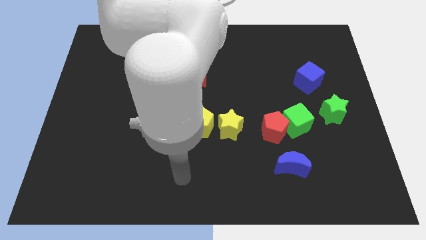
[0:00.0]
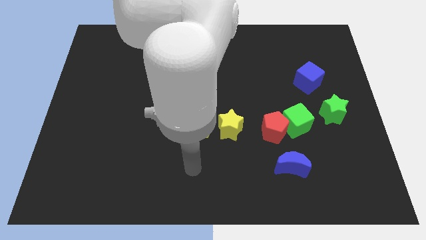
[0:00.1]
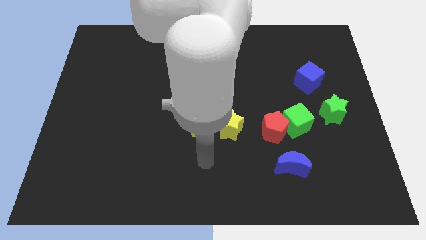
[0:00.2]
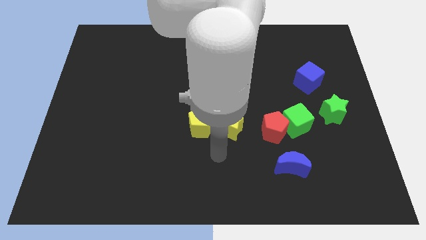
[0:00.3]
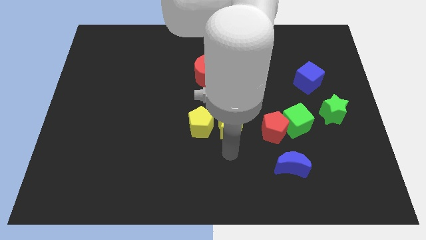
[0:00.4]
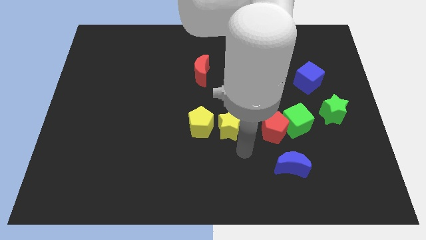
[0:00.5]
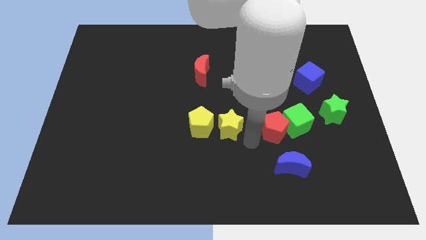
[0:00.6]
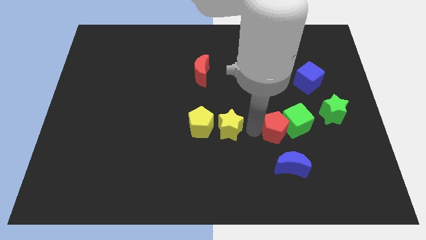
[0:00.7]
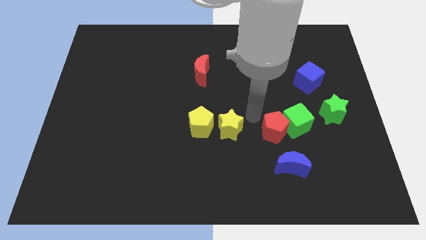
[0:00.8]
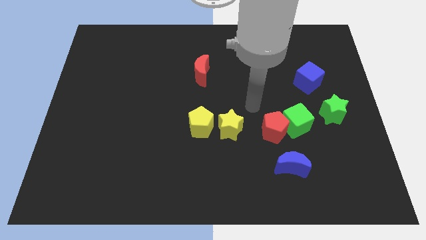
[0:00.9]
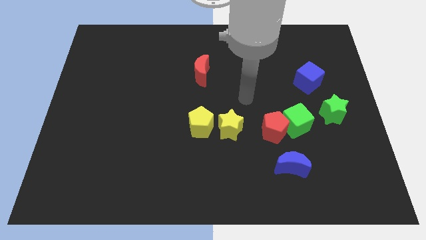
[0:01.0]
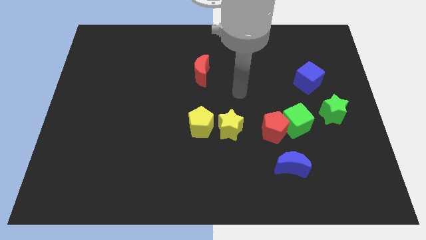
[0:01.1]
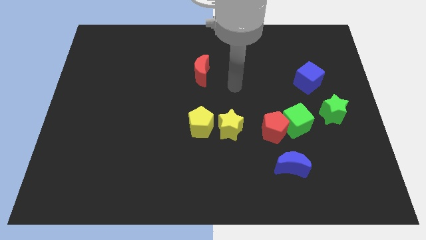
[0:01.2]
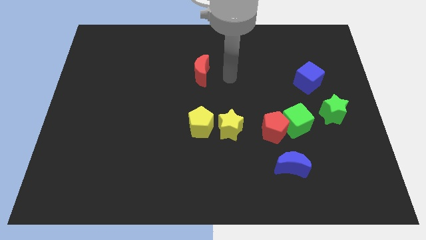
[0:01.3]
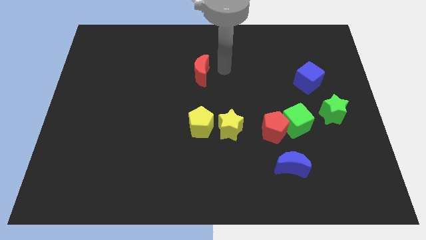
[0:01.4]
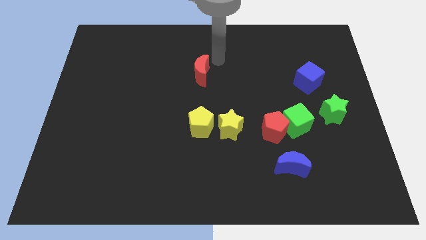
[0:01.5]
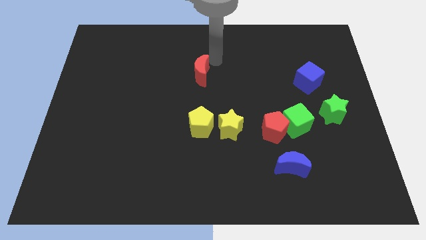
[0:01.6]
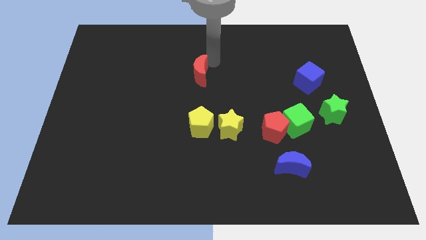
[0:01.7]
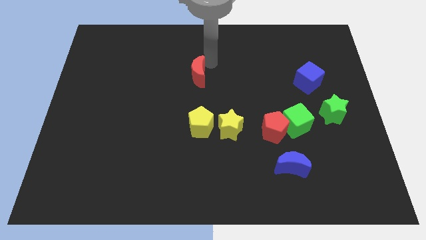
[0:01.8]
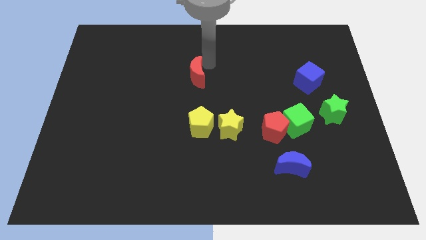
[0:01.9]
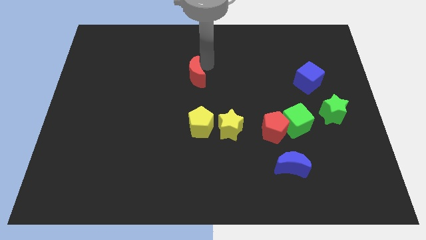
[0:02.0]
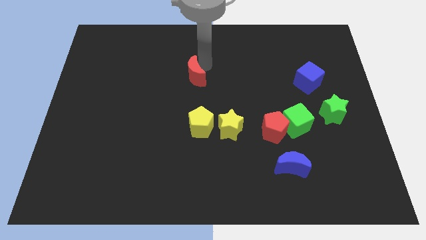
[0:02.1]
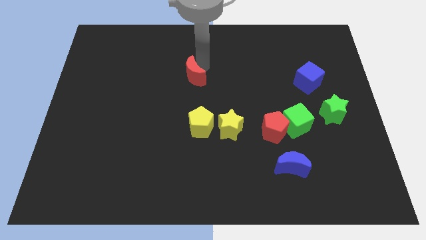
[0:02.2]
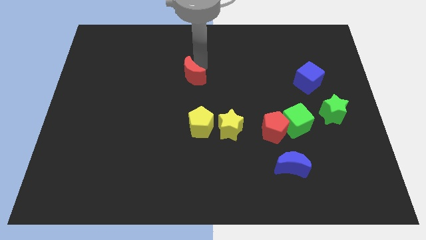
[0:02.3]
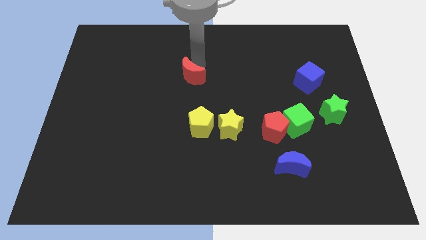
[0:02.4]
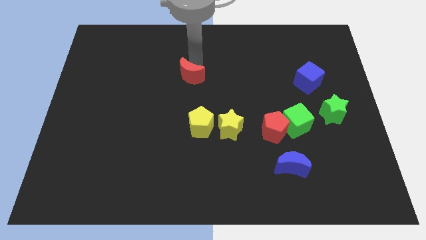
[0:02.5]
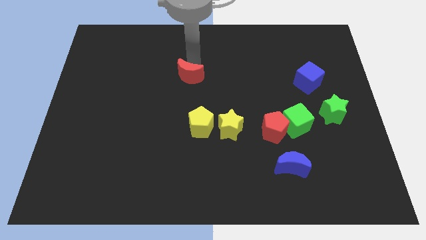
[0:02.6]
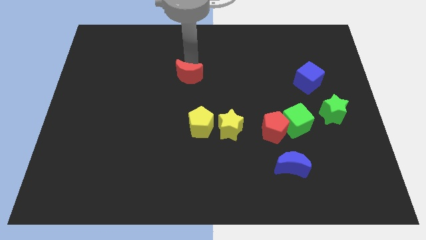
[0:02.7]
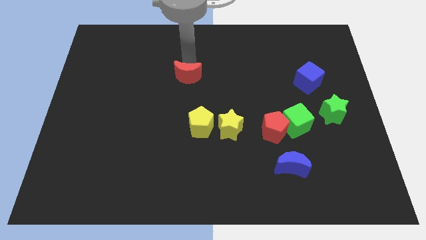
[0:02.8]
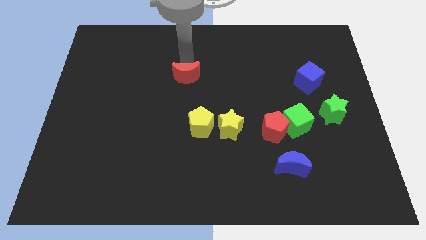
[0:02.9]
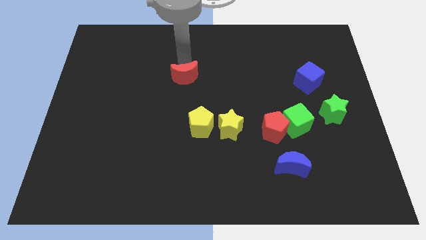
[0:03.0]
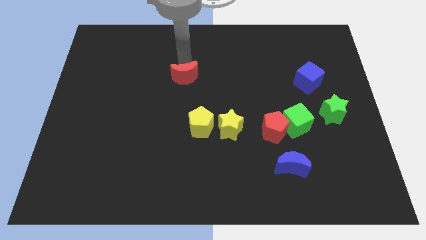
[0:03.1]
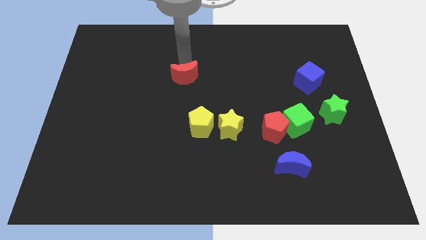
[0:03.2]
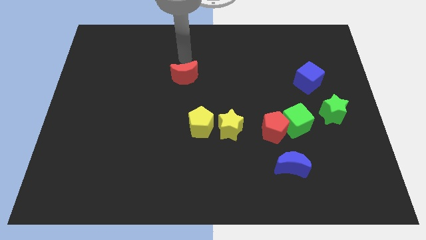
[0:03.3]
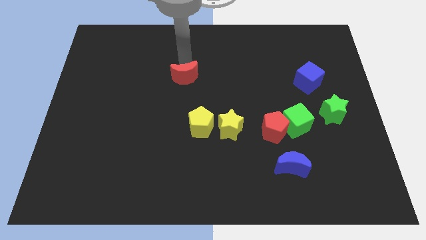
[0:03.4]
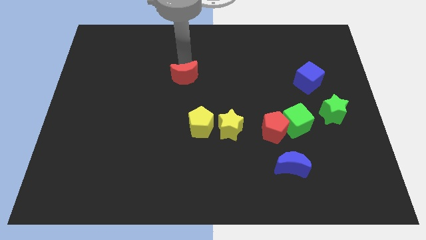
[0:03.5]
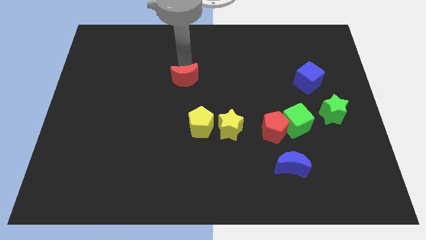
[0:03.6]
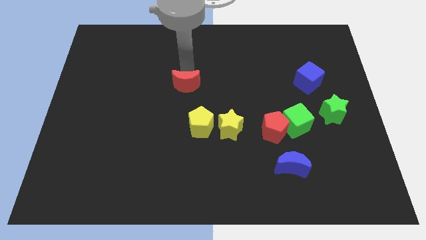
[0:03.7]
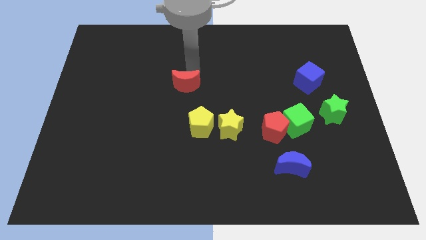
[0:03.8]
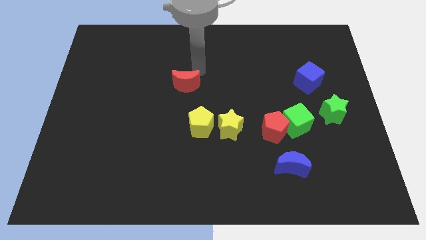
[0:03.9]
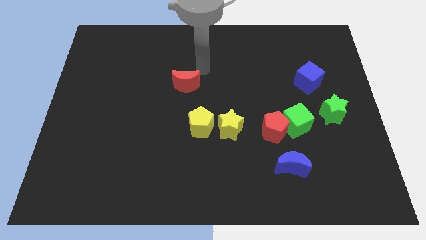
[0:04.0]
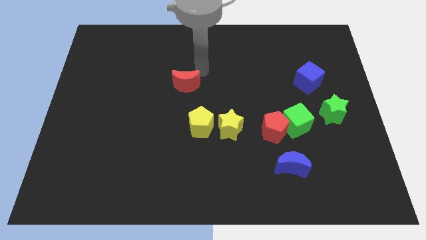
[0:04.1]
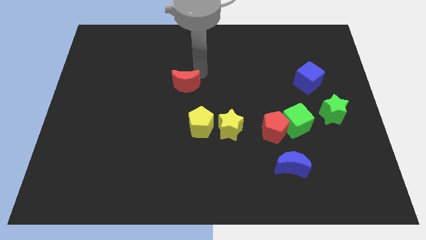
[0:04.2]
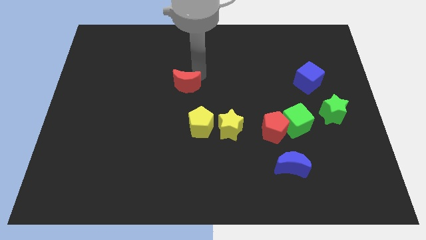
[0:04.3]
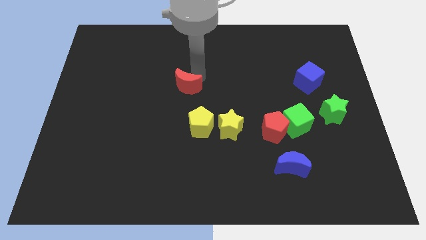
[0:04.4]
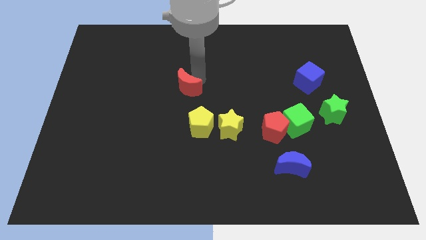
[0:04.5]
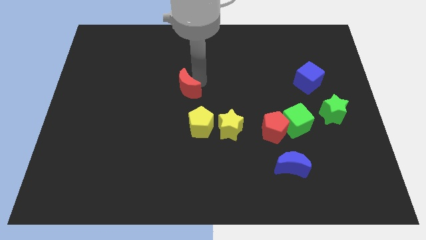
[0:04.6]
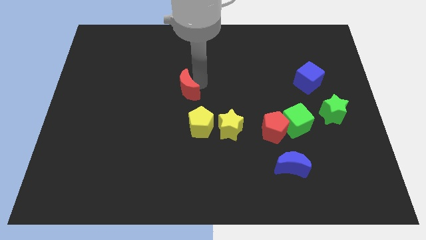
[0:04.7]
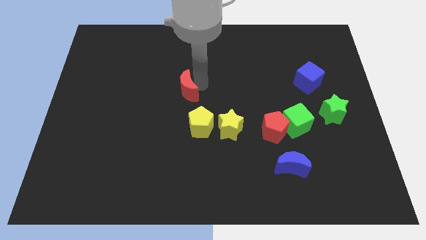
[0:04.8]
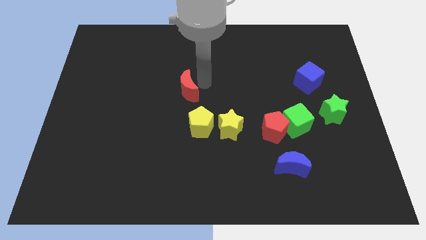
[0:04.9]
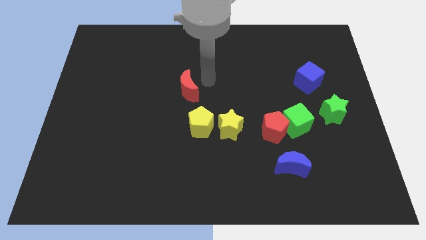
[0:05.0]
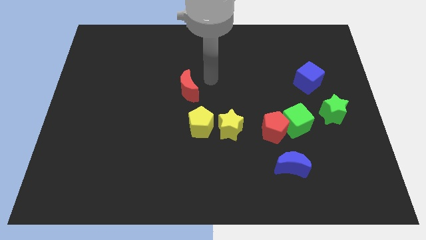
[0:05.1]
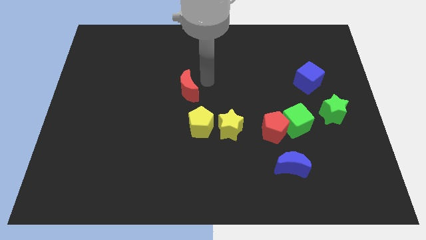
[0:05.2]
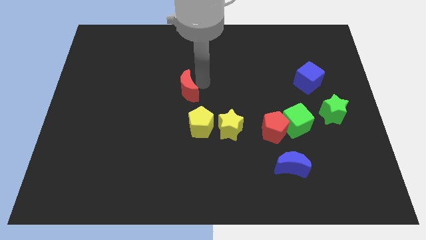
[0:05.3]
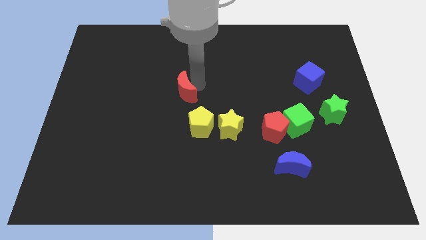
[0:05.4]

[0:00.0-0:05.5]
slightly slide the red moon downwards and left diagonally

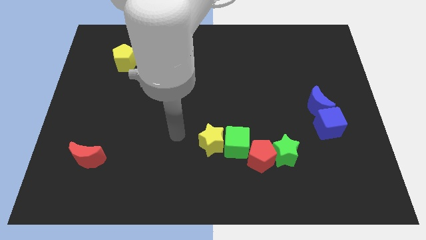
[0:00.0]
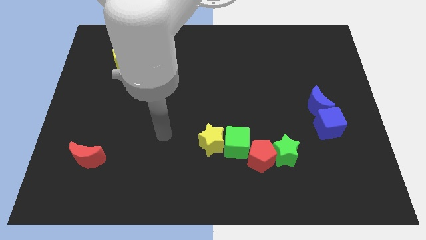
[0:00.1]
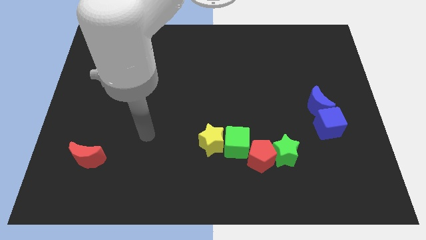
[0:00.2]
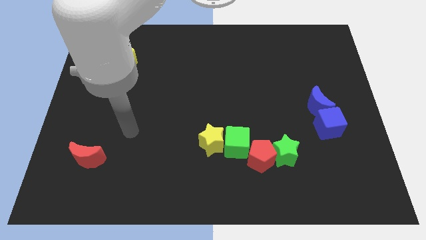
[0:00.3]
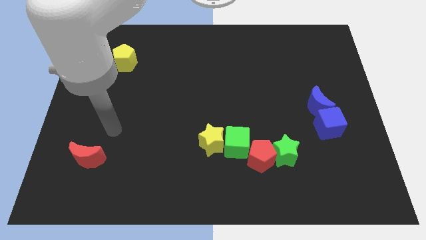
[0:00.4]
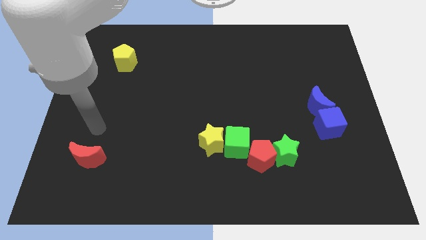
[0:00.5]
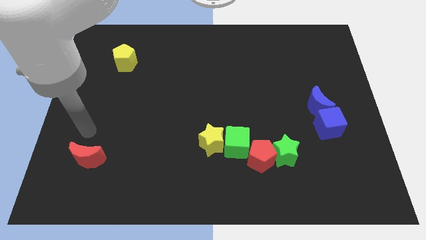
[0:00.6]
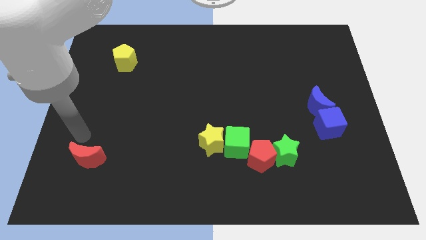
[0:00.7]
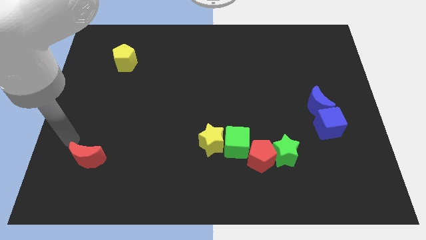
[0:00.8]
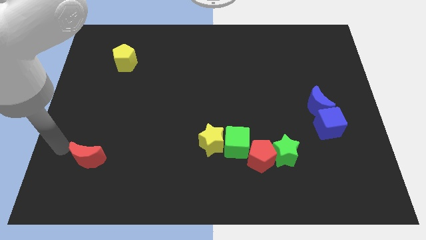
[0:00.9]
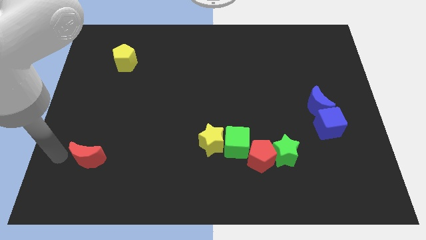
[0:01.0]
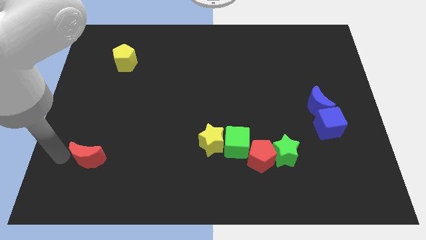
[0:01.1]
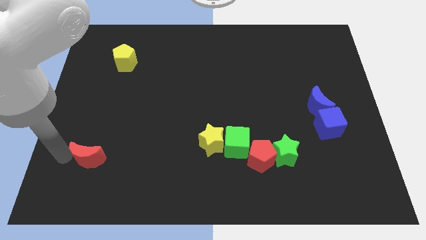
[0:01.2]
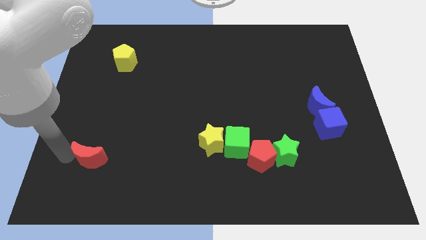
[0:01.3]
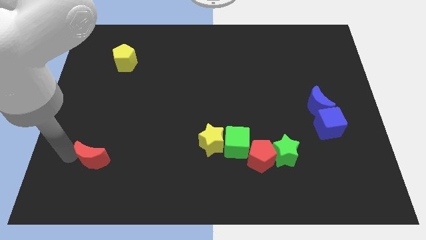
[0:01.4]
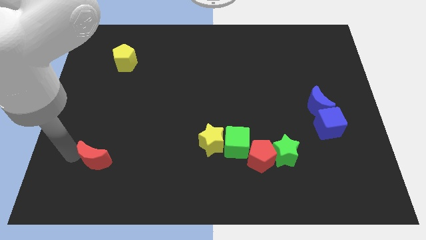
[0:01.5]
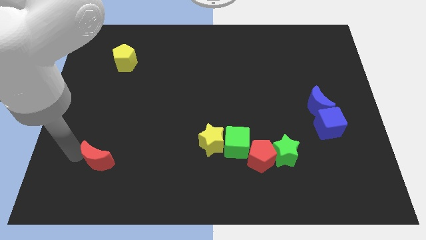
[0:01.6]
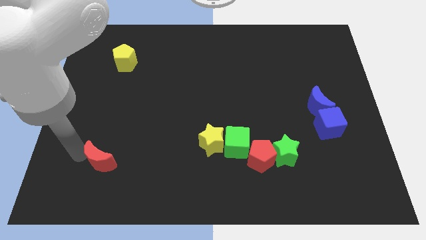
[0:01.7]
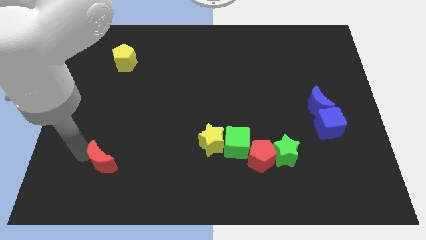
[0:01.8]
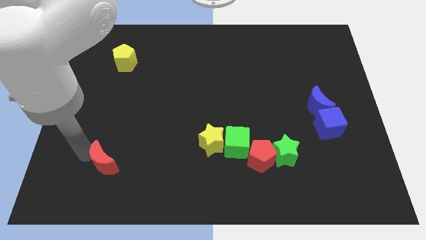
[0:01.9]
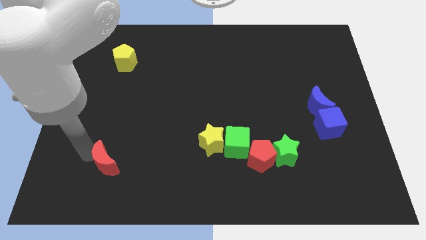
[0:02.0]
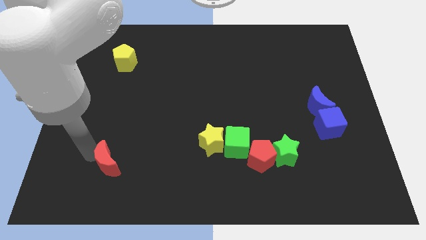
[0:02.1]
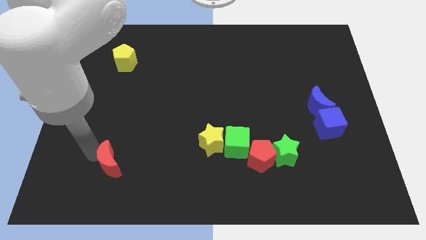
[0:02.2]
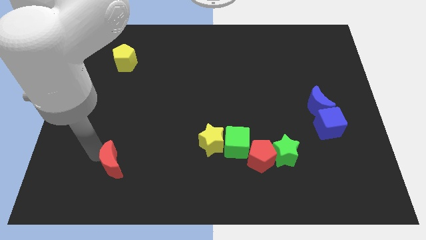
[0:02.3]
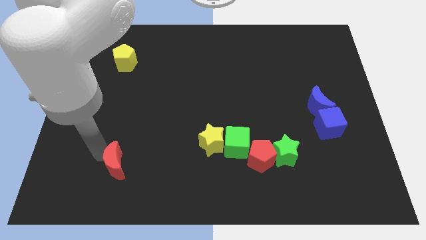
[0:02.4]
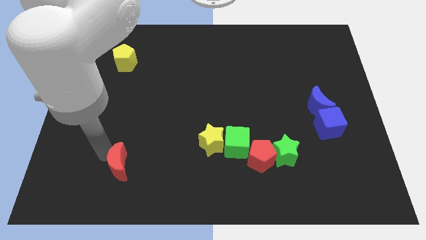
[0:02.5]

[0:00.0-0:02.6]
slightly slide the red moon right

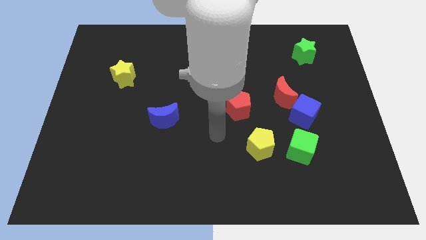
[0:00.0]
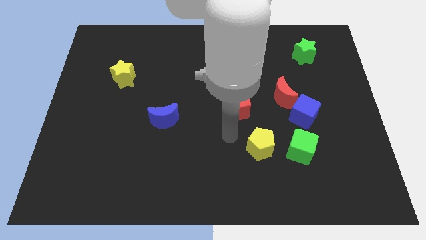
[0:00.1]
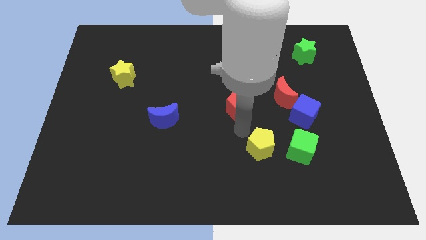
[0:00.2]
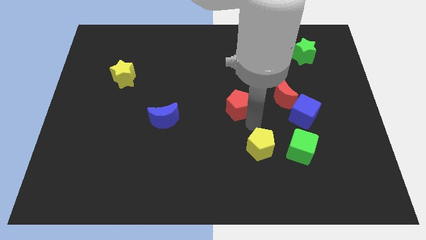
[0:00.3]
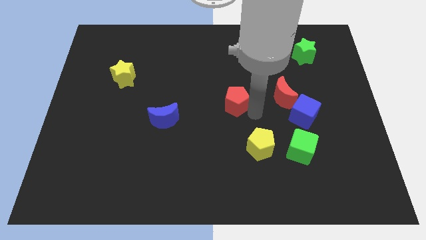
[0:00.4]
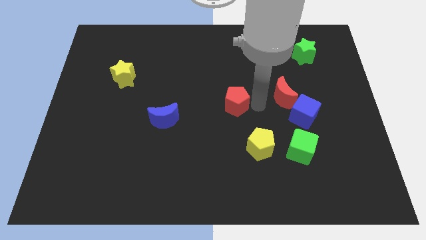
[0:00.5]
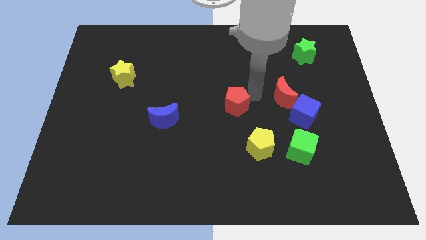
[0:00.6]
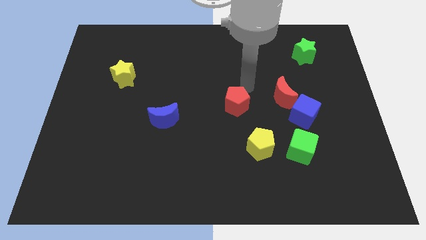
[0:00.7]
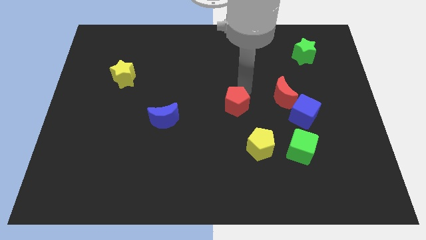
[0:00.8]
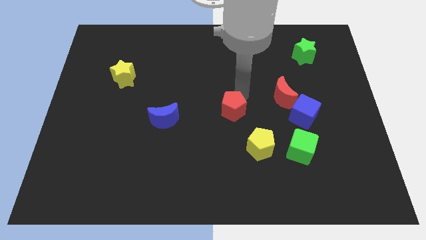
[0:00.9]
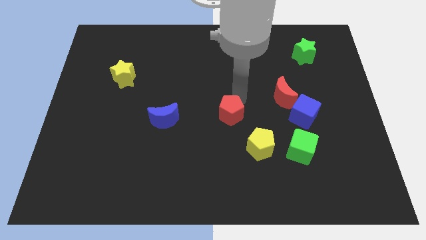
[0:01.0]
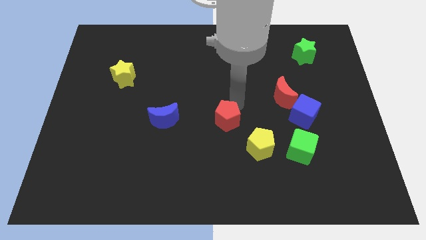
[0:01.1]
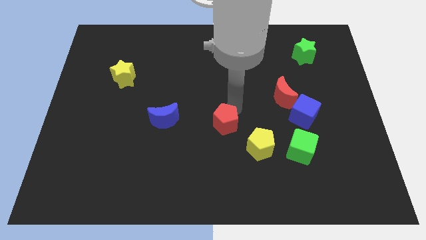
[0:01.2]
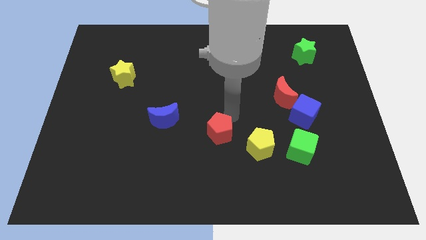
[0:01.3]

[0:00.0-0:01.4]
slide the red pentagon slightly down and then left
